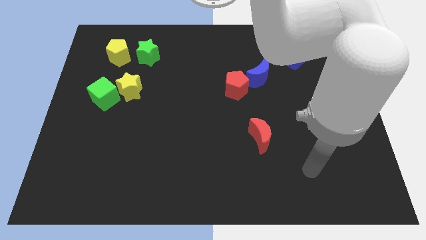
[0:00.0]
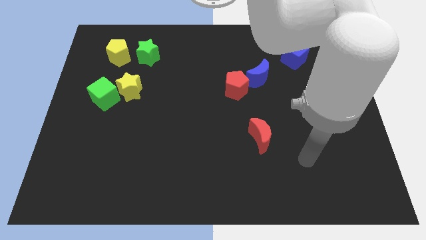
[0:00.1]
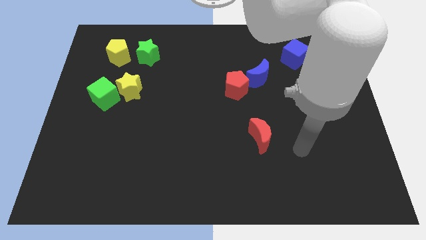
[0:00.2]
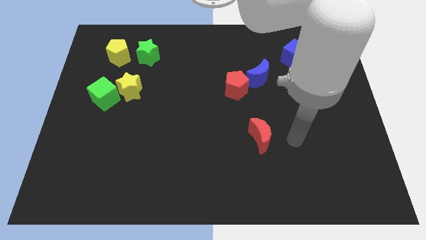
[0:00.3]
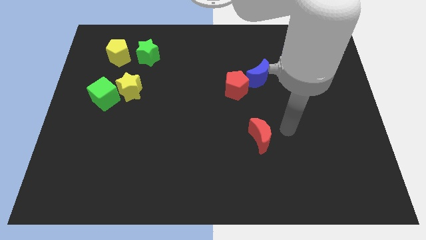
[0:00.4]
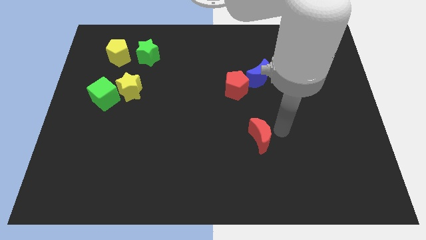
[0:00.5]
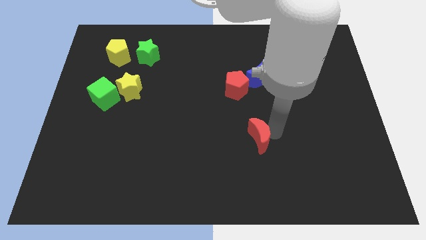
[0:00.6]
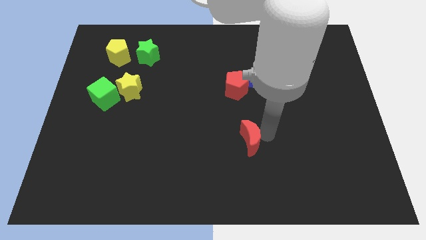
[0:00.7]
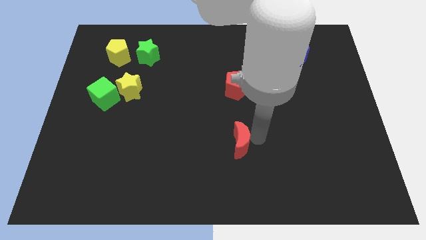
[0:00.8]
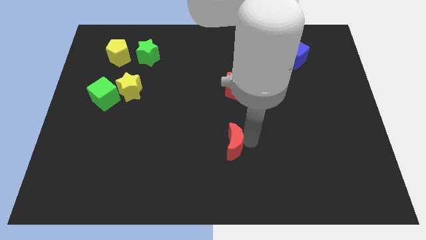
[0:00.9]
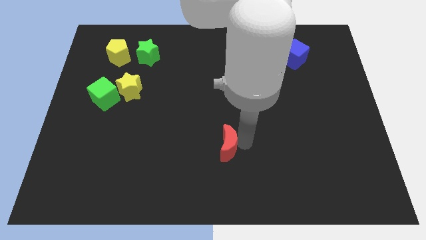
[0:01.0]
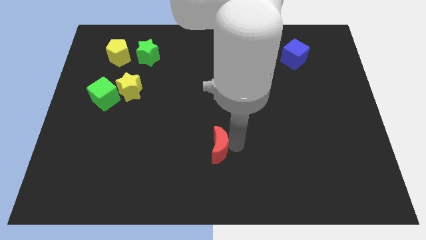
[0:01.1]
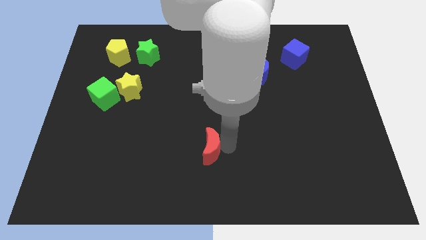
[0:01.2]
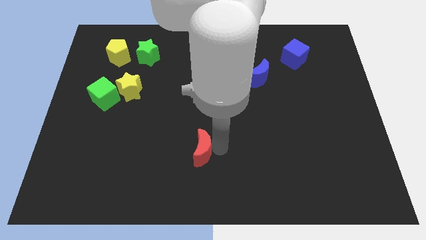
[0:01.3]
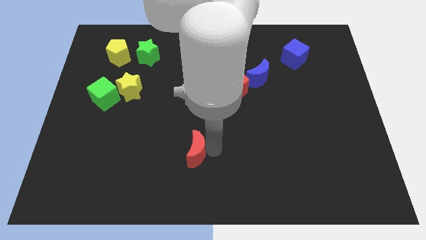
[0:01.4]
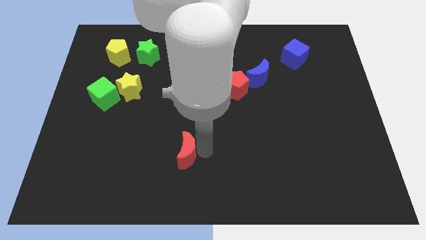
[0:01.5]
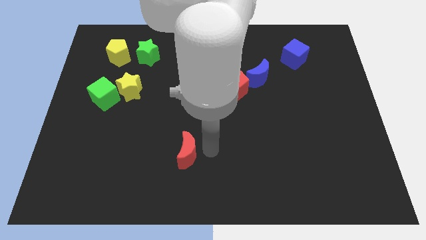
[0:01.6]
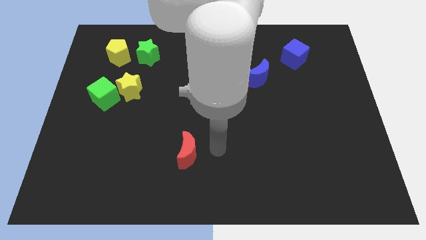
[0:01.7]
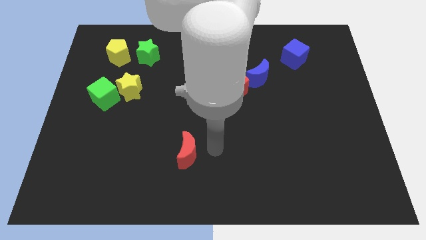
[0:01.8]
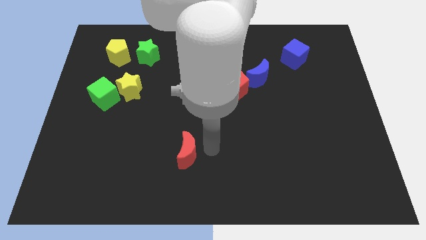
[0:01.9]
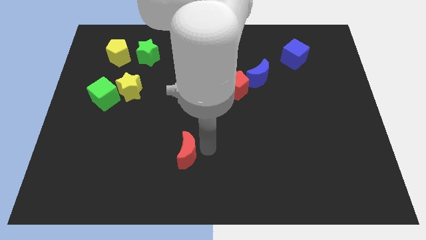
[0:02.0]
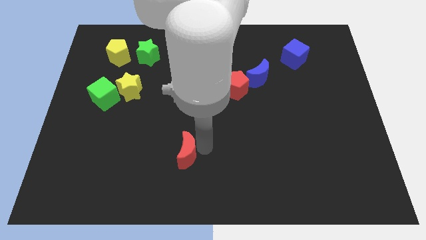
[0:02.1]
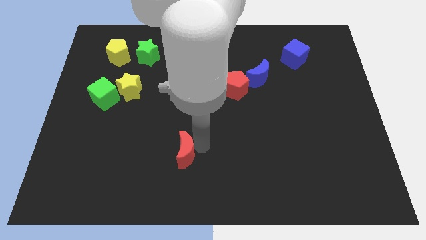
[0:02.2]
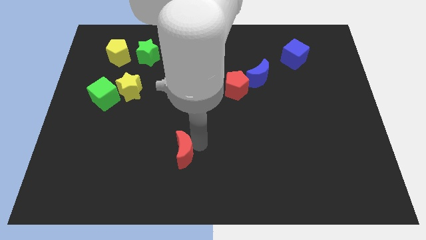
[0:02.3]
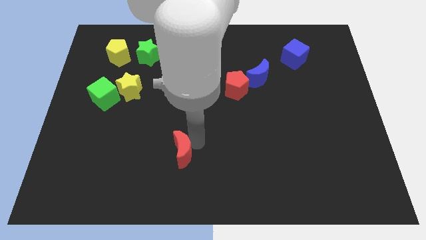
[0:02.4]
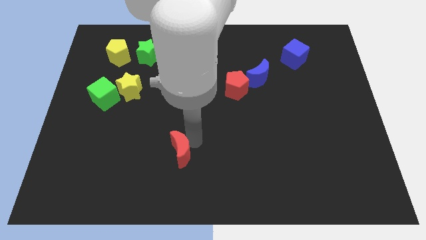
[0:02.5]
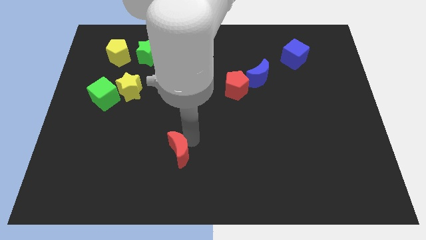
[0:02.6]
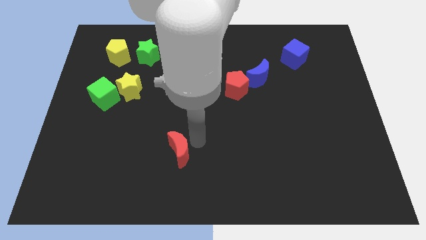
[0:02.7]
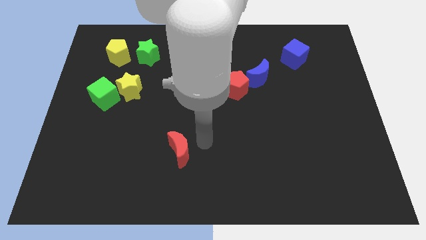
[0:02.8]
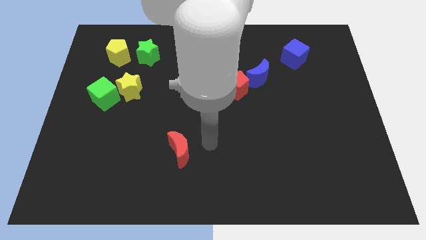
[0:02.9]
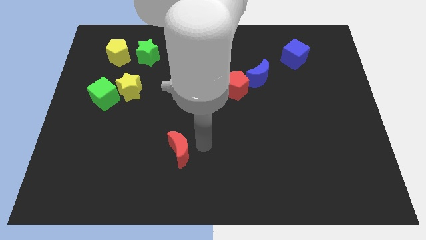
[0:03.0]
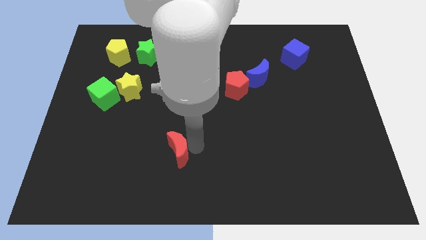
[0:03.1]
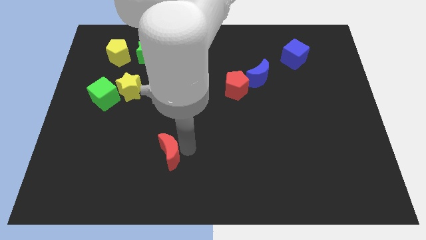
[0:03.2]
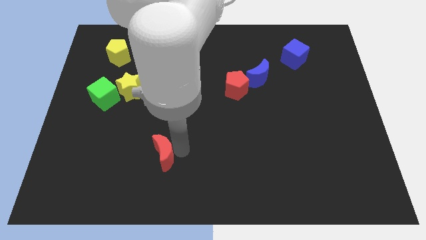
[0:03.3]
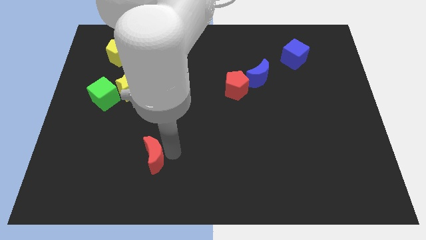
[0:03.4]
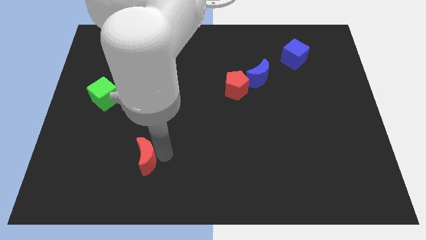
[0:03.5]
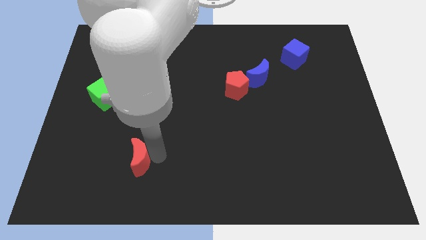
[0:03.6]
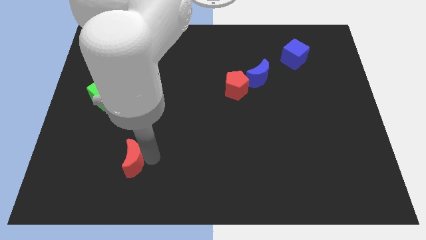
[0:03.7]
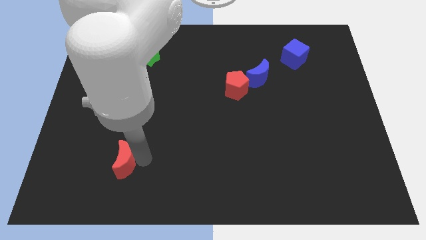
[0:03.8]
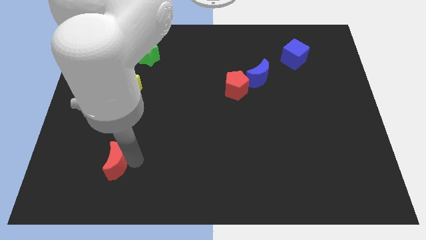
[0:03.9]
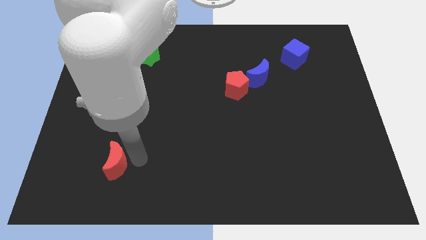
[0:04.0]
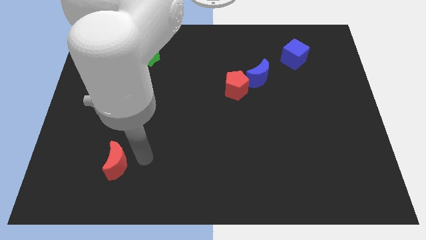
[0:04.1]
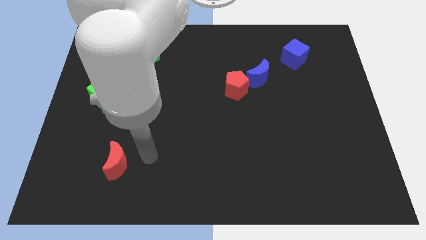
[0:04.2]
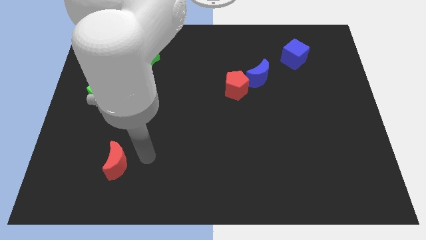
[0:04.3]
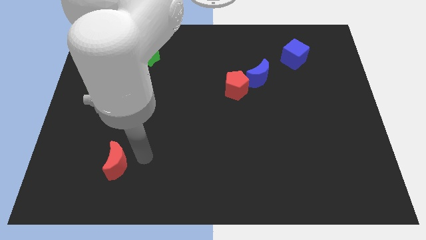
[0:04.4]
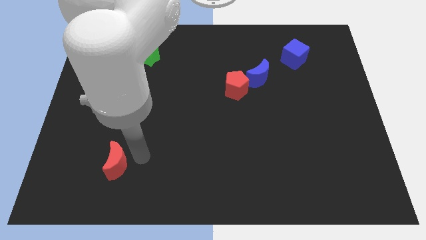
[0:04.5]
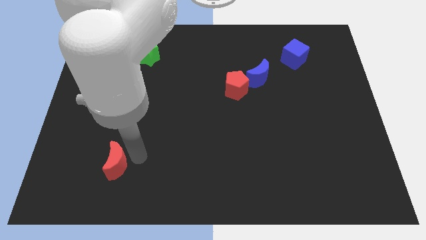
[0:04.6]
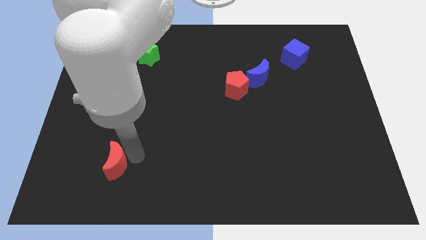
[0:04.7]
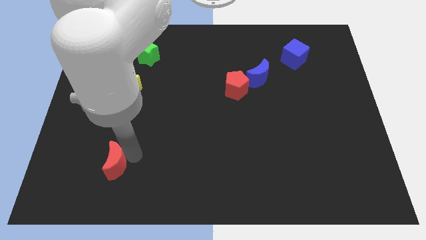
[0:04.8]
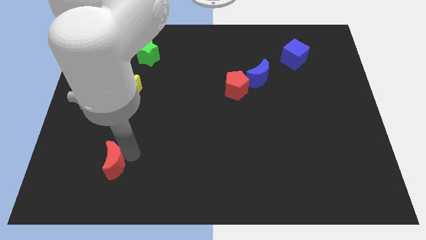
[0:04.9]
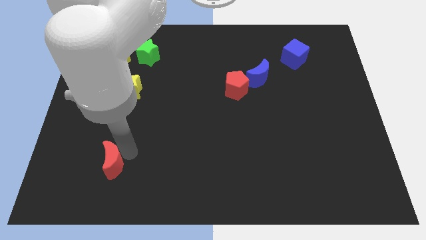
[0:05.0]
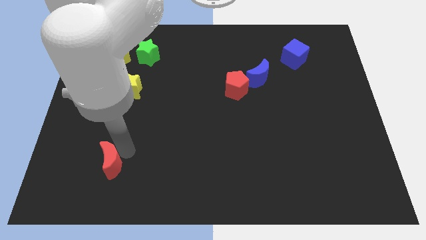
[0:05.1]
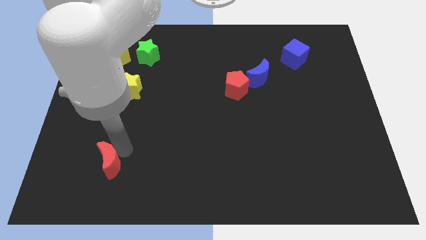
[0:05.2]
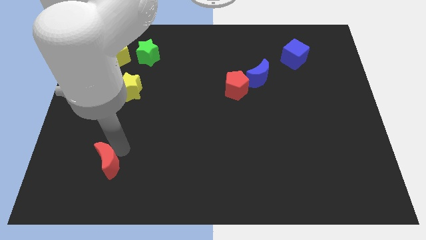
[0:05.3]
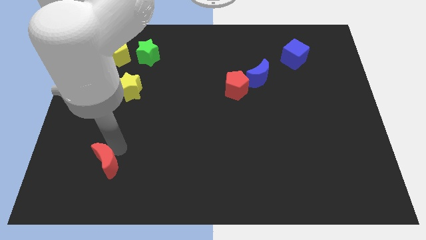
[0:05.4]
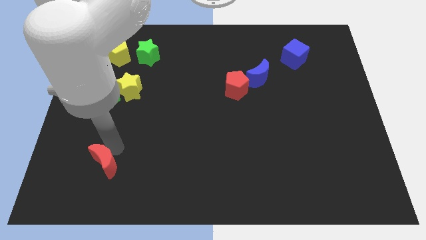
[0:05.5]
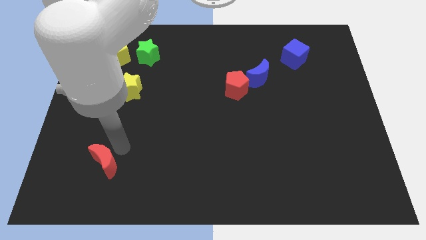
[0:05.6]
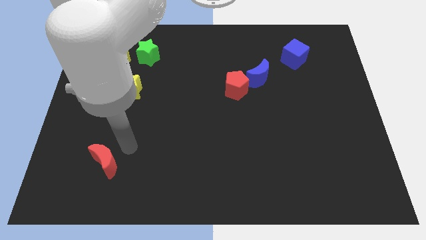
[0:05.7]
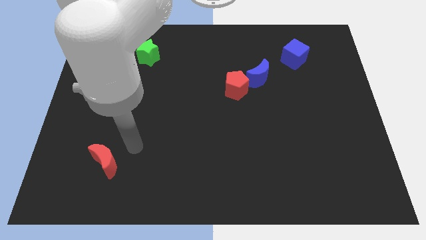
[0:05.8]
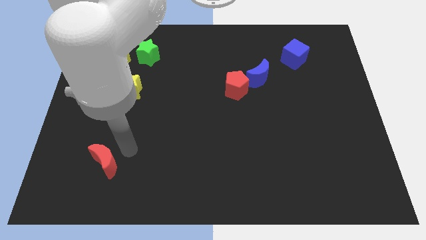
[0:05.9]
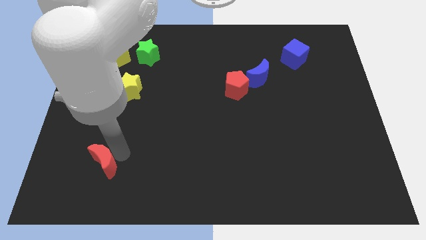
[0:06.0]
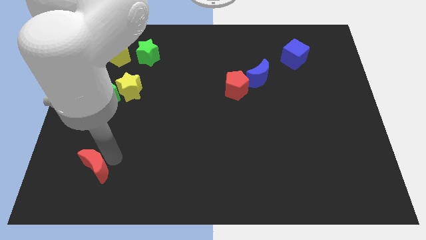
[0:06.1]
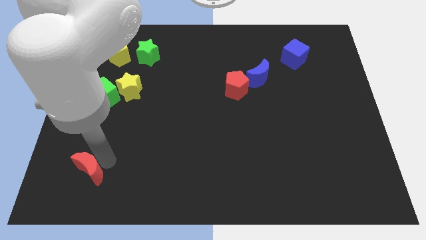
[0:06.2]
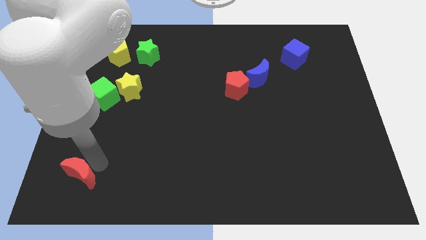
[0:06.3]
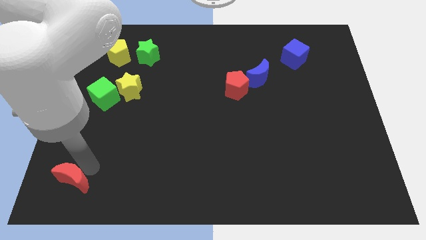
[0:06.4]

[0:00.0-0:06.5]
put the red moon to the bottom left corner

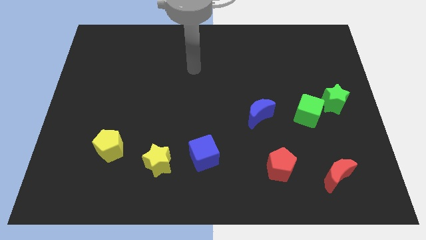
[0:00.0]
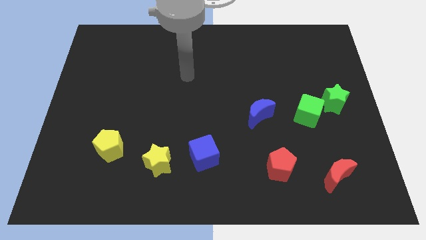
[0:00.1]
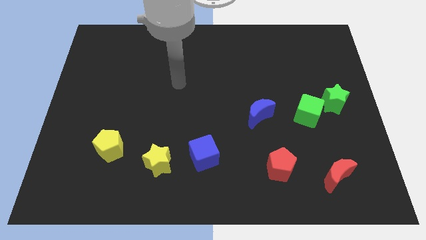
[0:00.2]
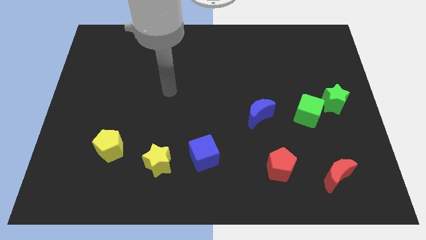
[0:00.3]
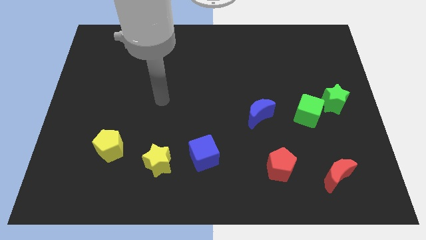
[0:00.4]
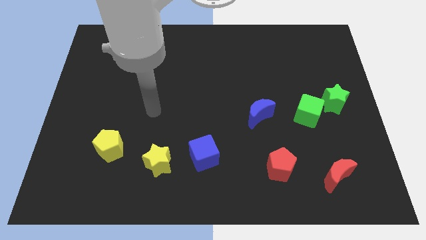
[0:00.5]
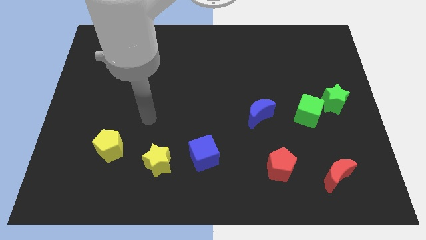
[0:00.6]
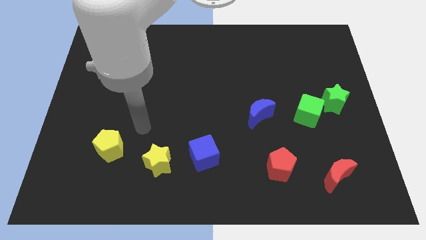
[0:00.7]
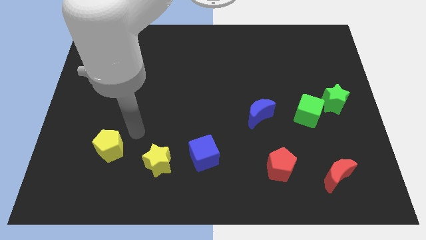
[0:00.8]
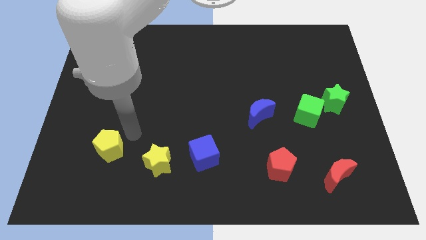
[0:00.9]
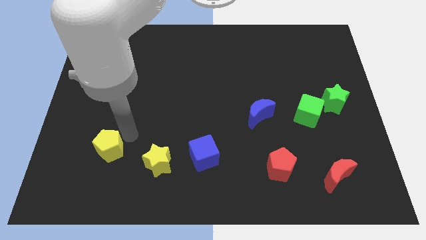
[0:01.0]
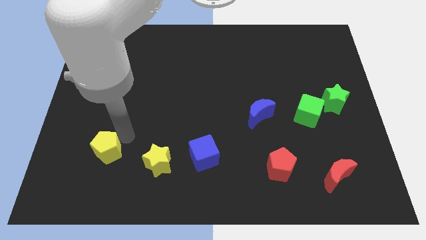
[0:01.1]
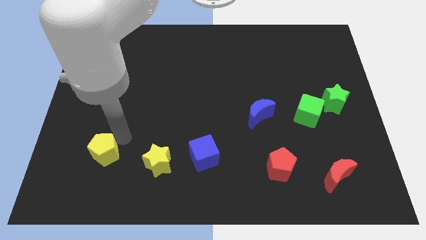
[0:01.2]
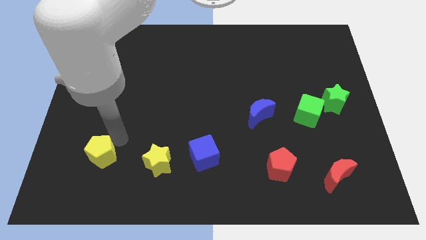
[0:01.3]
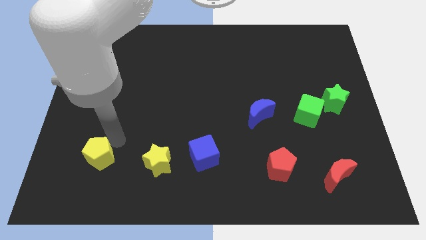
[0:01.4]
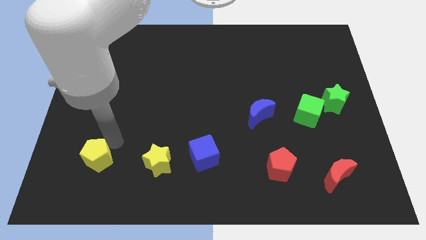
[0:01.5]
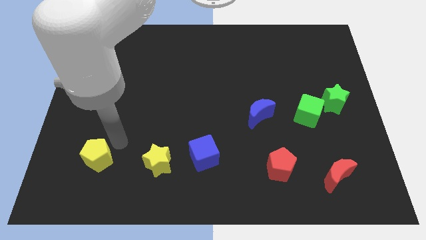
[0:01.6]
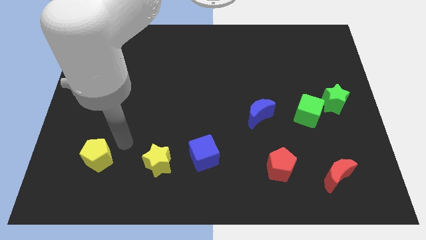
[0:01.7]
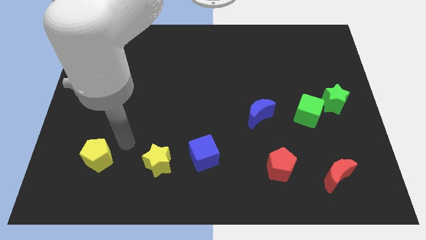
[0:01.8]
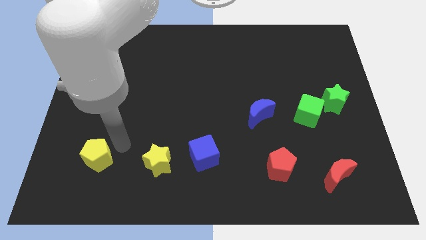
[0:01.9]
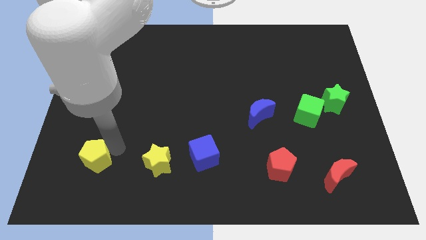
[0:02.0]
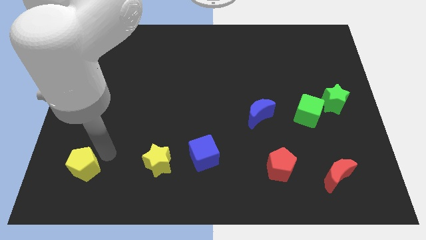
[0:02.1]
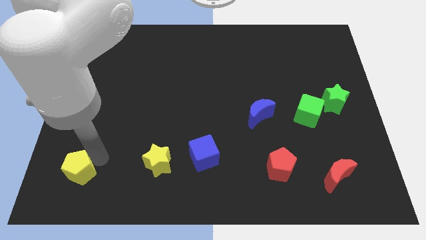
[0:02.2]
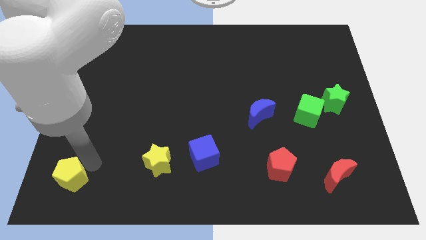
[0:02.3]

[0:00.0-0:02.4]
move the yellow pentagon to the bottom left
